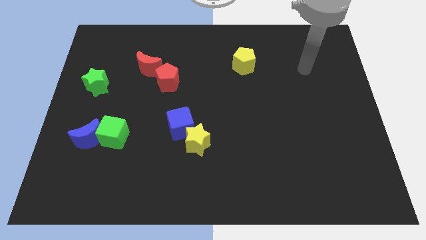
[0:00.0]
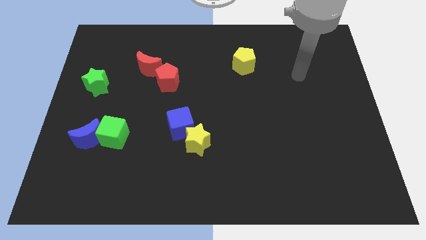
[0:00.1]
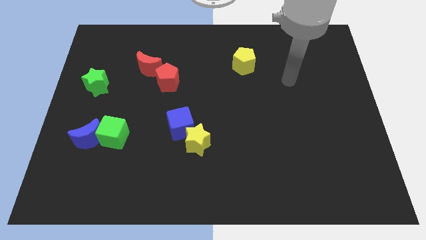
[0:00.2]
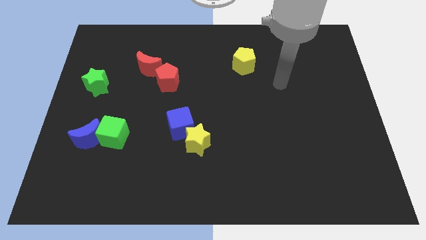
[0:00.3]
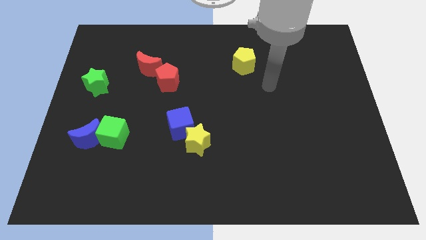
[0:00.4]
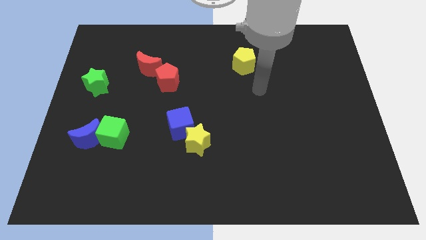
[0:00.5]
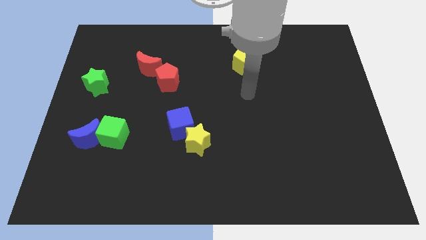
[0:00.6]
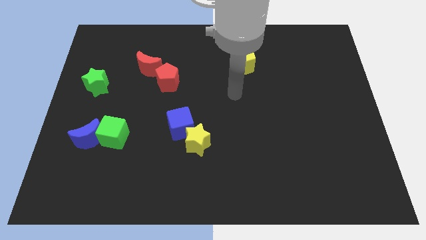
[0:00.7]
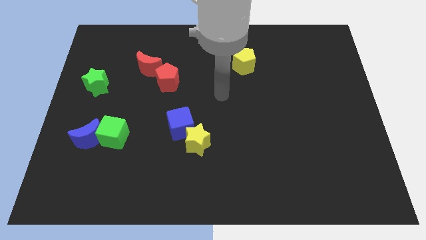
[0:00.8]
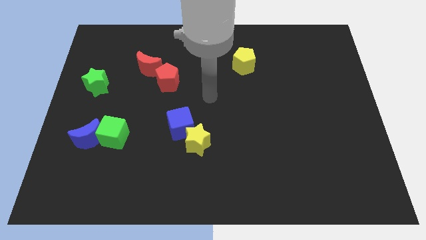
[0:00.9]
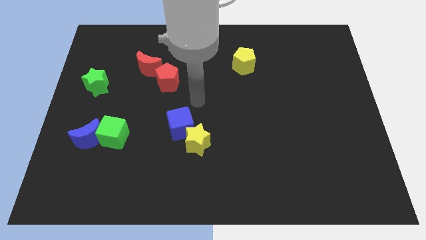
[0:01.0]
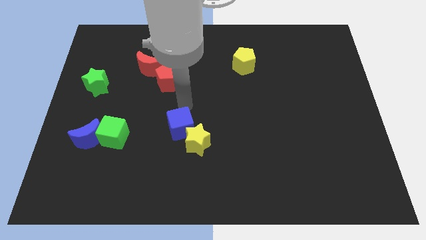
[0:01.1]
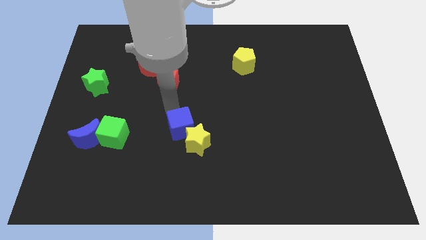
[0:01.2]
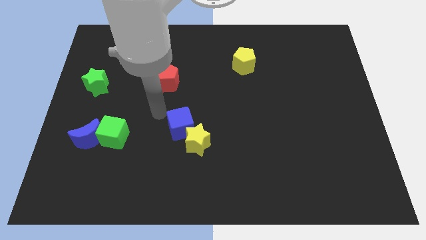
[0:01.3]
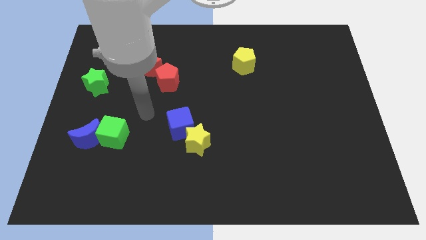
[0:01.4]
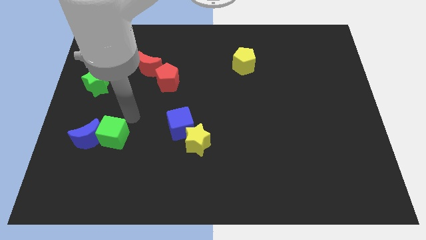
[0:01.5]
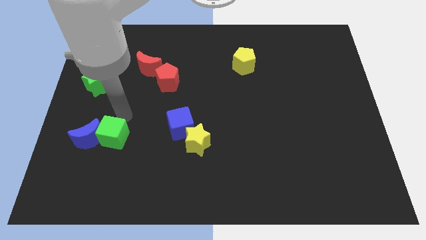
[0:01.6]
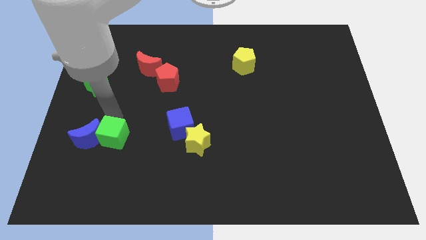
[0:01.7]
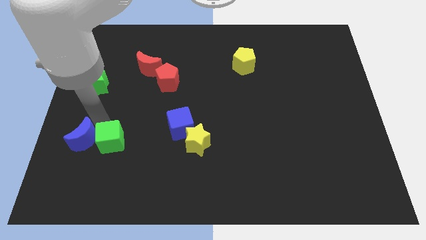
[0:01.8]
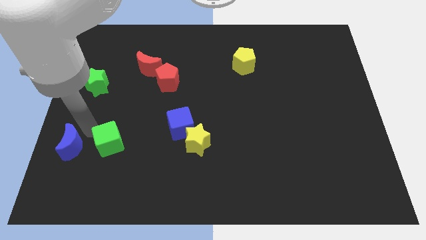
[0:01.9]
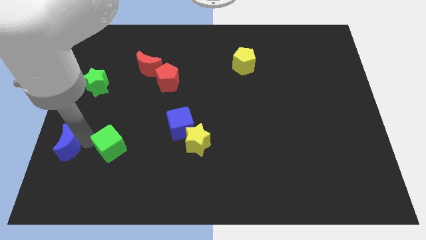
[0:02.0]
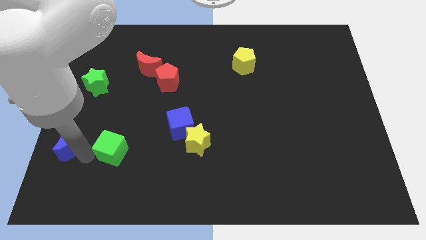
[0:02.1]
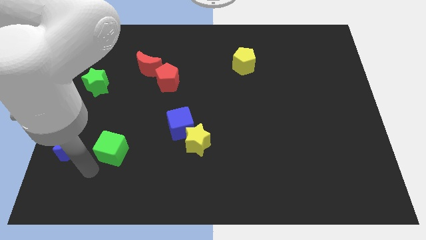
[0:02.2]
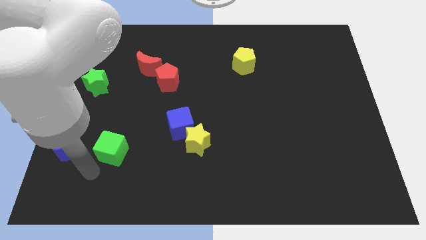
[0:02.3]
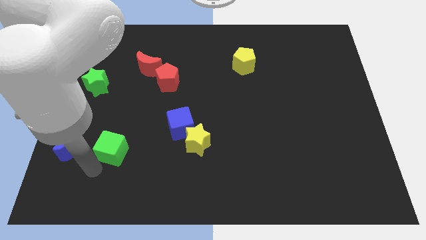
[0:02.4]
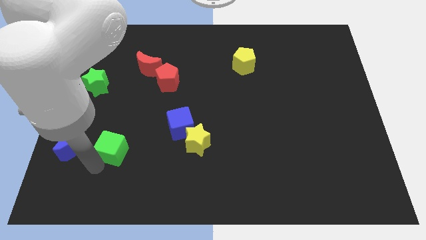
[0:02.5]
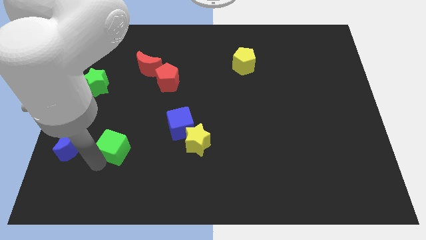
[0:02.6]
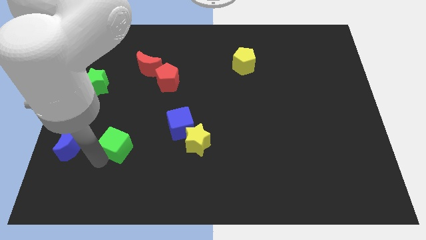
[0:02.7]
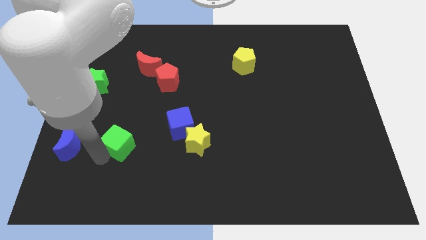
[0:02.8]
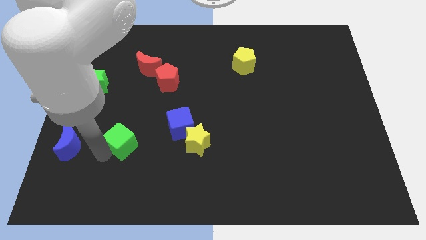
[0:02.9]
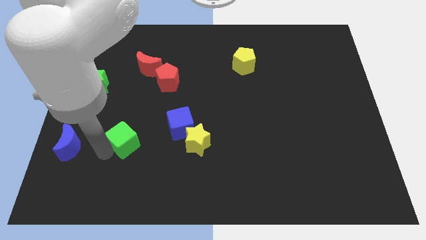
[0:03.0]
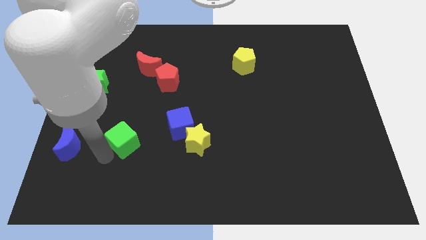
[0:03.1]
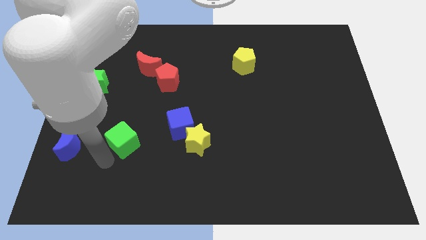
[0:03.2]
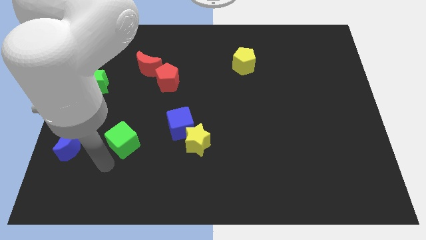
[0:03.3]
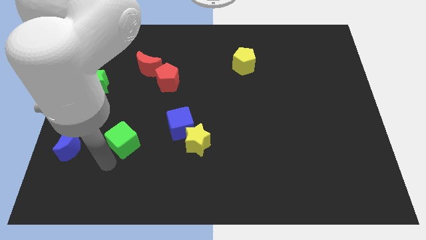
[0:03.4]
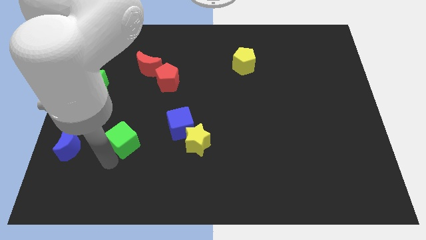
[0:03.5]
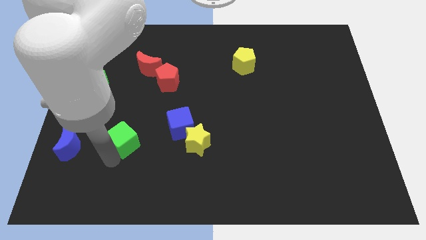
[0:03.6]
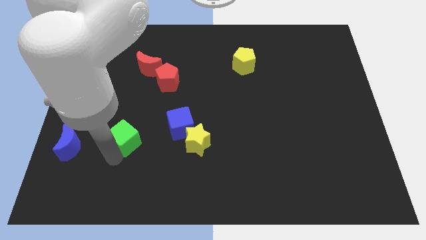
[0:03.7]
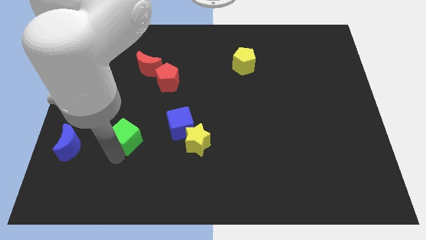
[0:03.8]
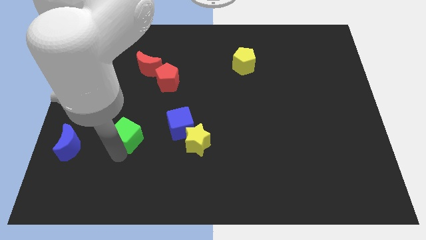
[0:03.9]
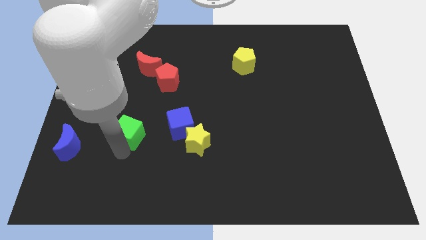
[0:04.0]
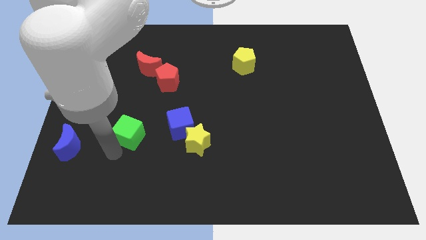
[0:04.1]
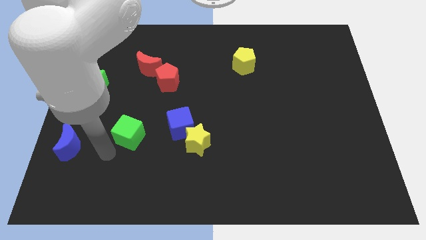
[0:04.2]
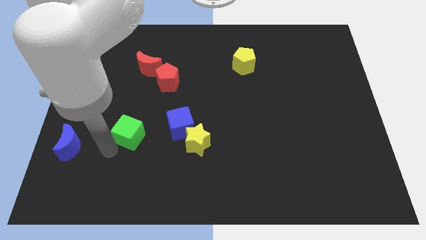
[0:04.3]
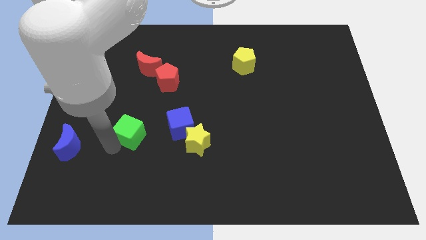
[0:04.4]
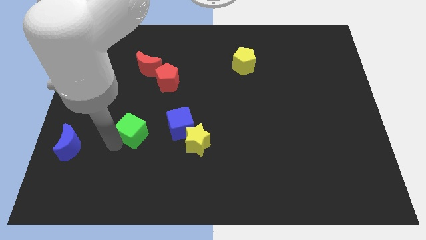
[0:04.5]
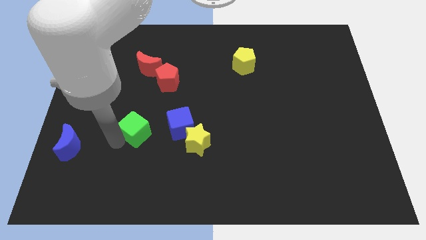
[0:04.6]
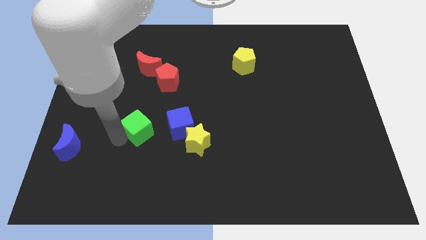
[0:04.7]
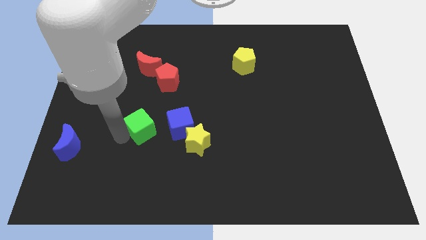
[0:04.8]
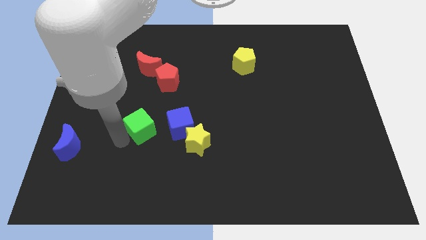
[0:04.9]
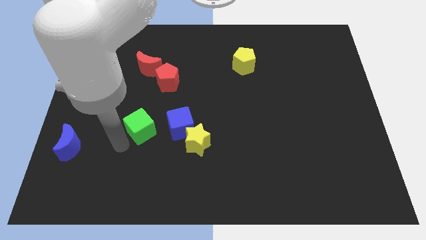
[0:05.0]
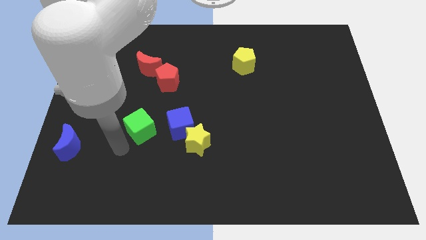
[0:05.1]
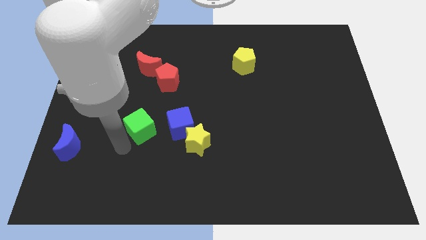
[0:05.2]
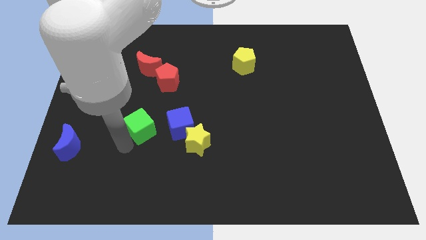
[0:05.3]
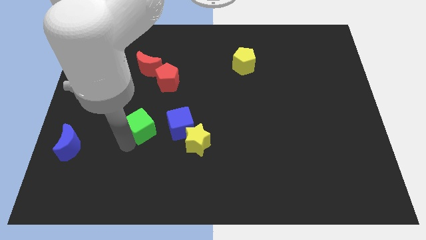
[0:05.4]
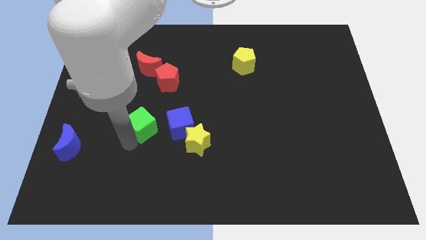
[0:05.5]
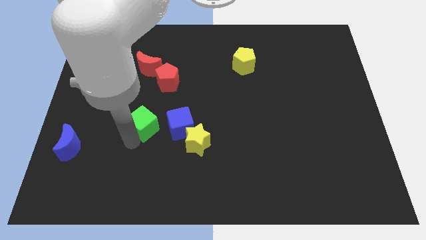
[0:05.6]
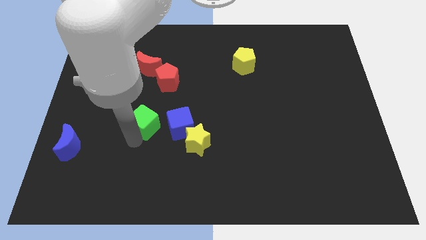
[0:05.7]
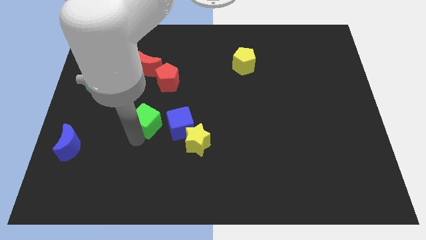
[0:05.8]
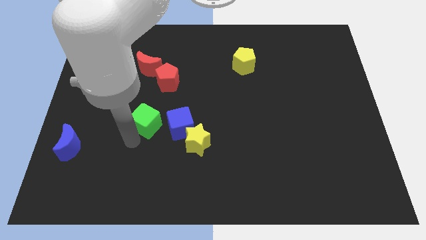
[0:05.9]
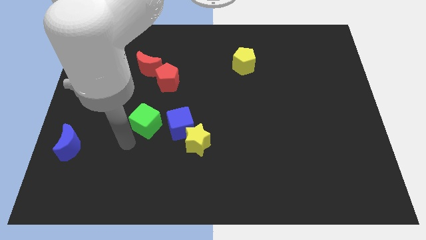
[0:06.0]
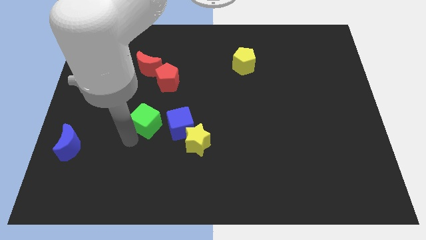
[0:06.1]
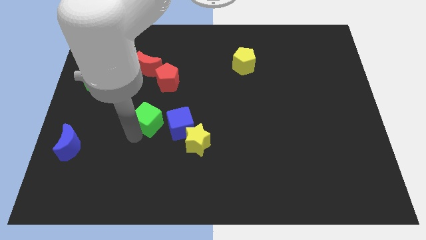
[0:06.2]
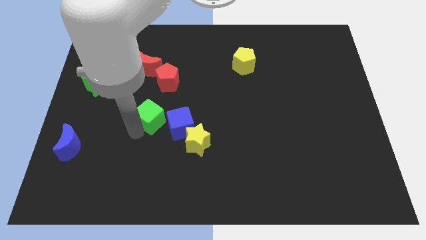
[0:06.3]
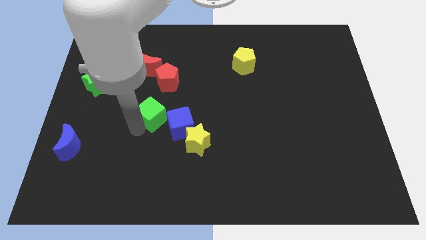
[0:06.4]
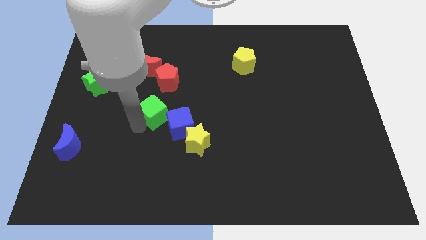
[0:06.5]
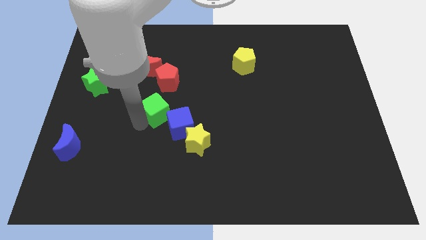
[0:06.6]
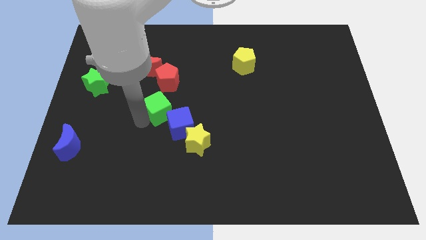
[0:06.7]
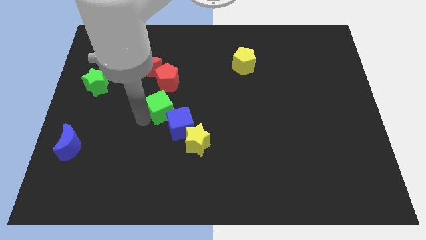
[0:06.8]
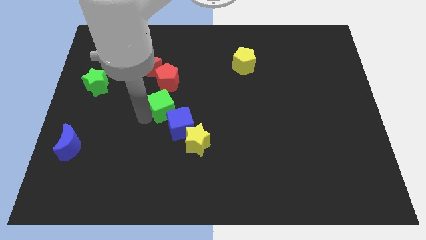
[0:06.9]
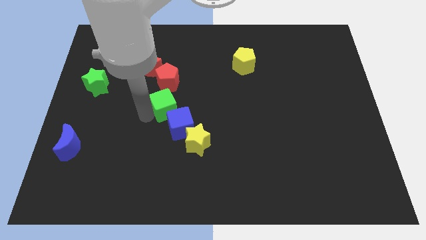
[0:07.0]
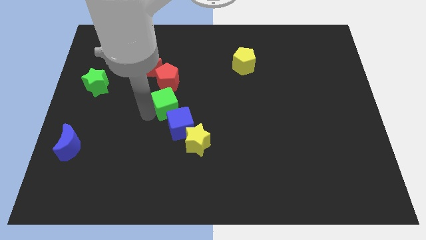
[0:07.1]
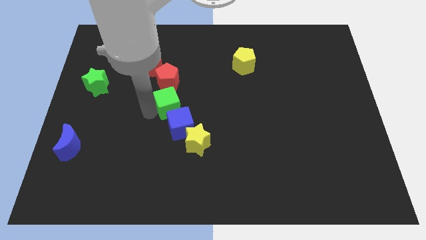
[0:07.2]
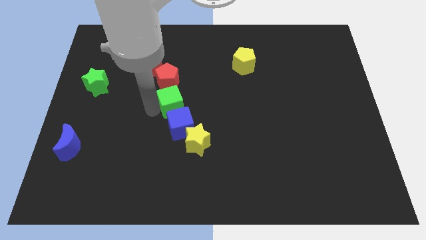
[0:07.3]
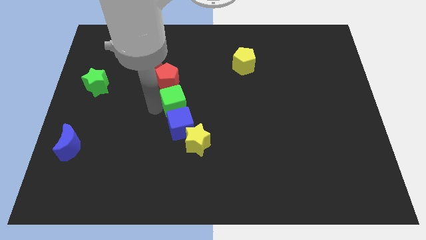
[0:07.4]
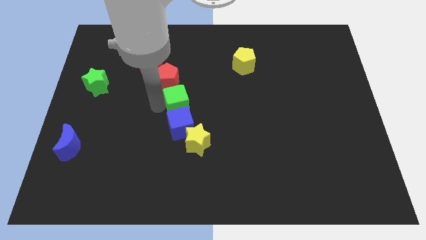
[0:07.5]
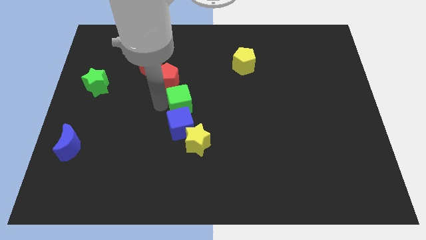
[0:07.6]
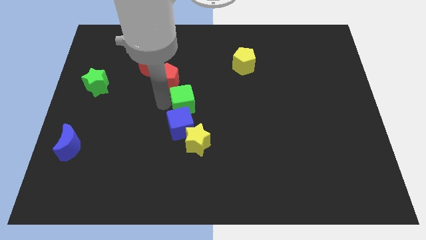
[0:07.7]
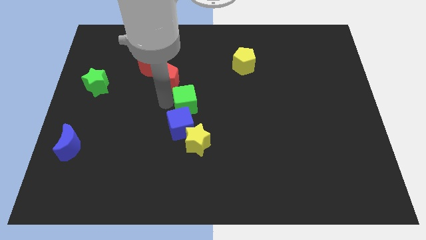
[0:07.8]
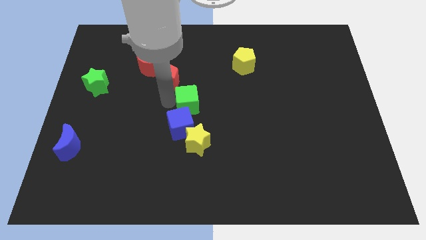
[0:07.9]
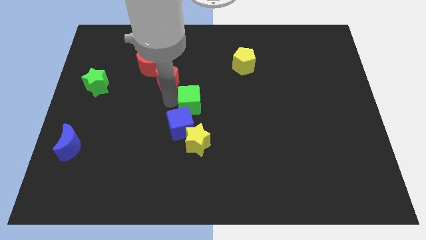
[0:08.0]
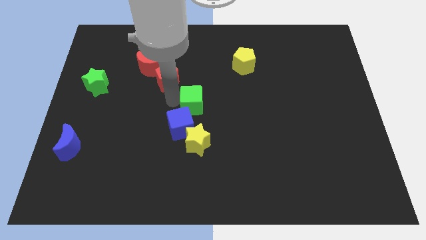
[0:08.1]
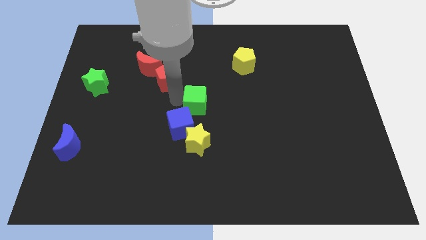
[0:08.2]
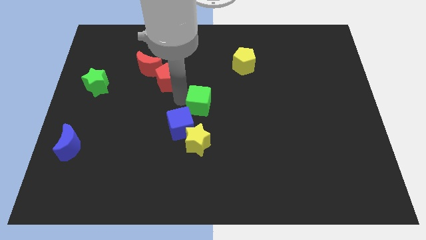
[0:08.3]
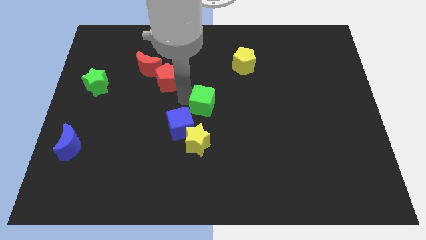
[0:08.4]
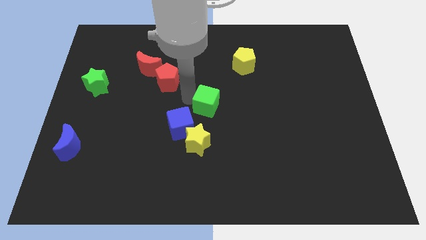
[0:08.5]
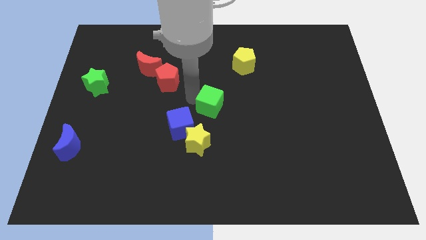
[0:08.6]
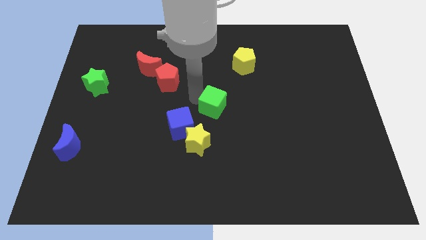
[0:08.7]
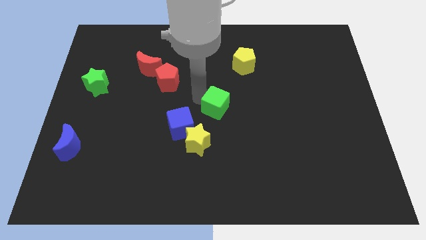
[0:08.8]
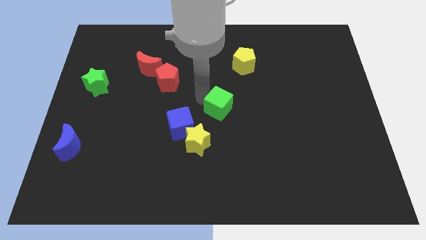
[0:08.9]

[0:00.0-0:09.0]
push the green cube right
